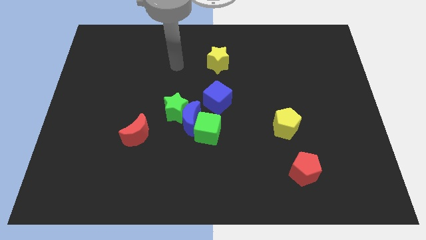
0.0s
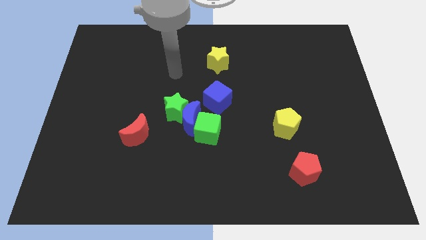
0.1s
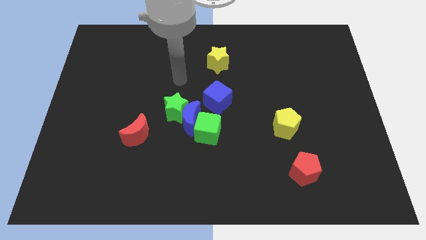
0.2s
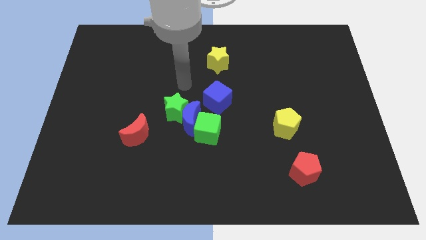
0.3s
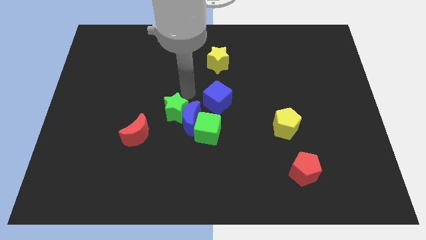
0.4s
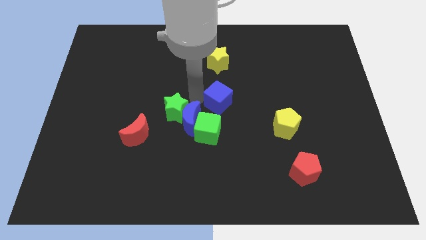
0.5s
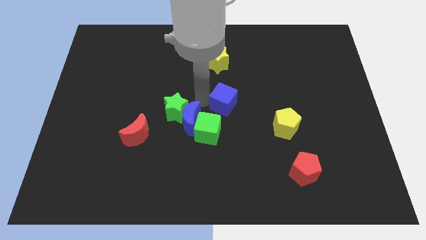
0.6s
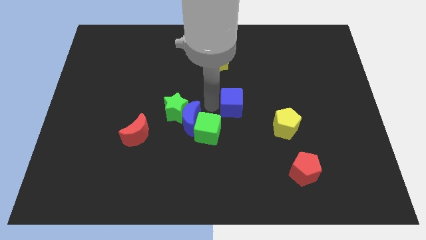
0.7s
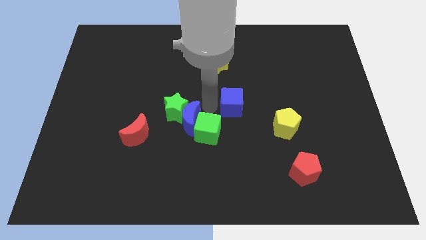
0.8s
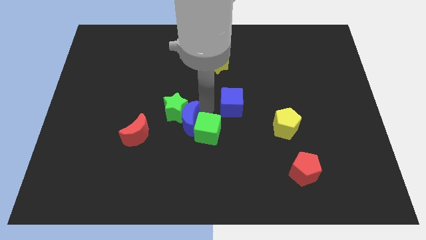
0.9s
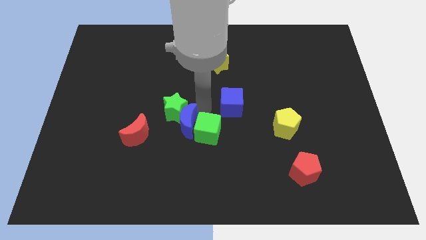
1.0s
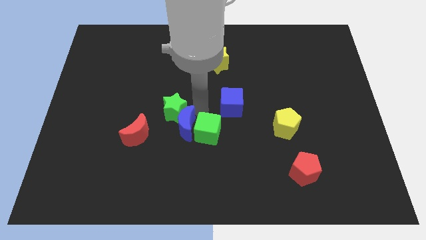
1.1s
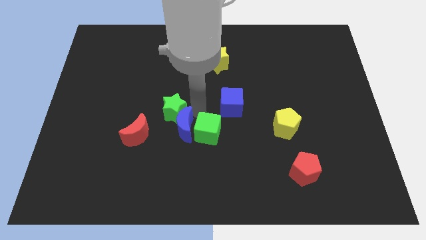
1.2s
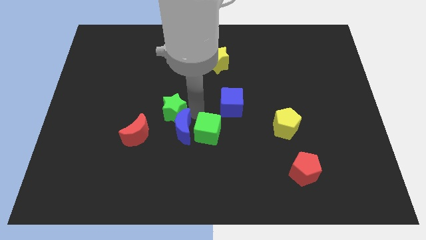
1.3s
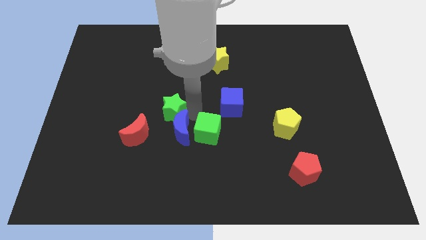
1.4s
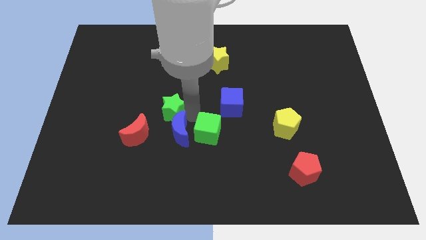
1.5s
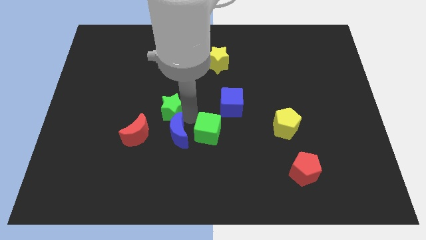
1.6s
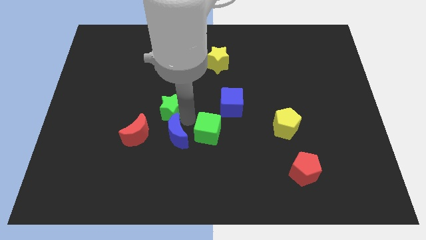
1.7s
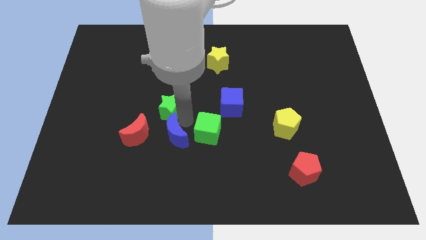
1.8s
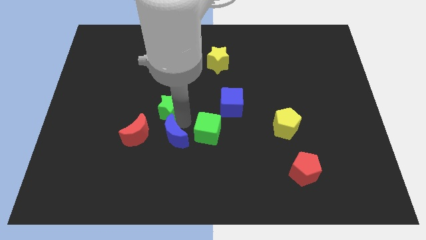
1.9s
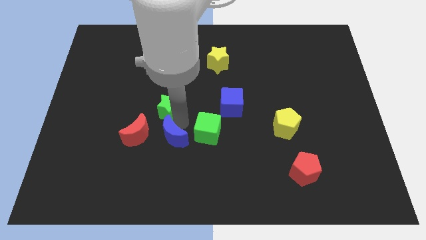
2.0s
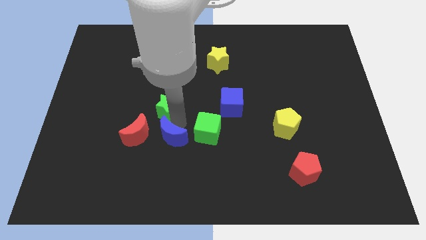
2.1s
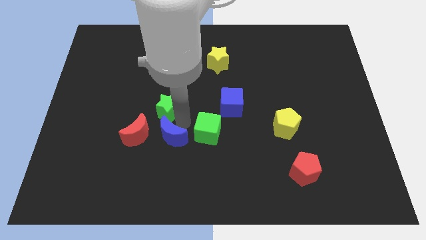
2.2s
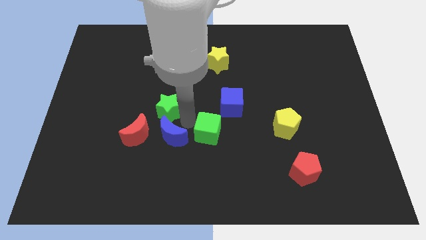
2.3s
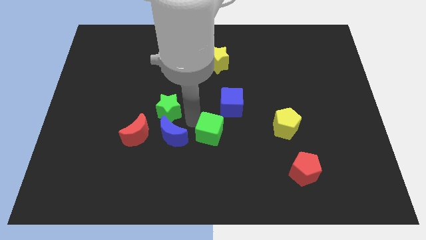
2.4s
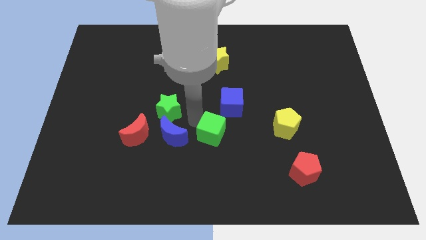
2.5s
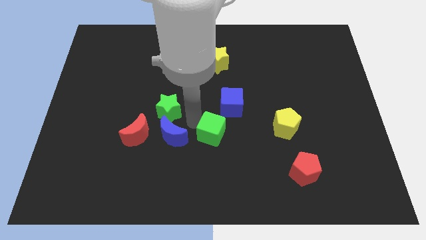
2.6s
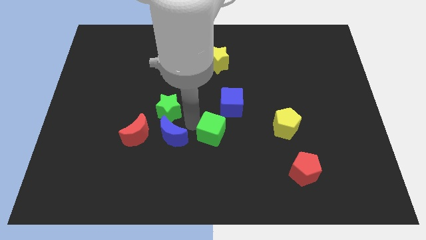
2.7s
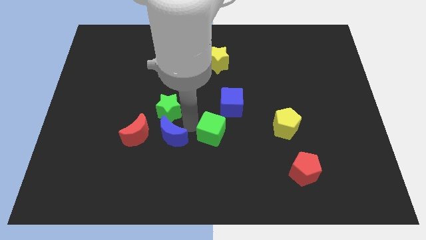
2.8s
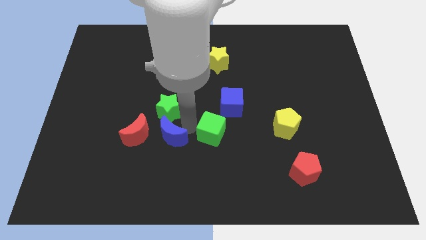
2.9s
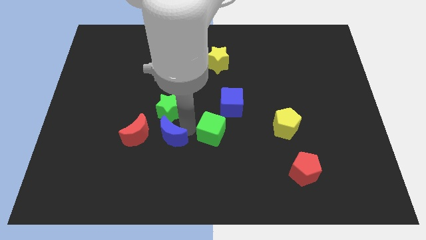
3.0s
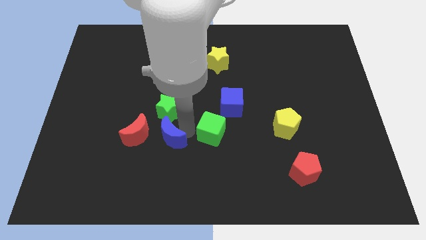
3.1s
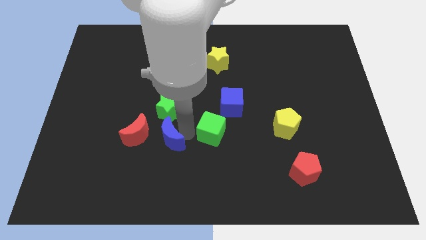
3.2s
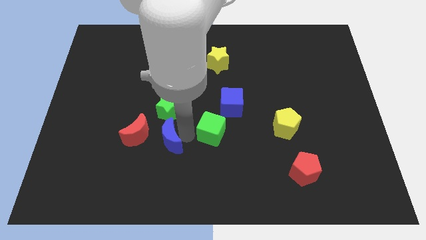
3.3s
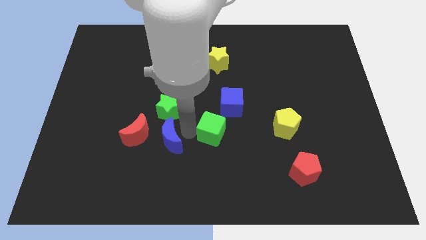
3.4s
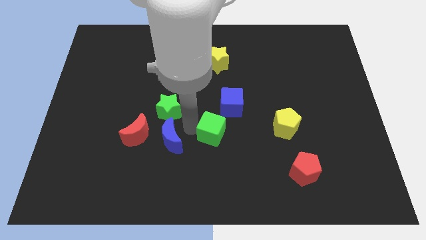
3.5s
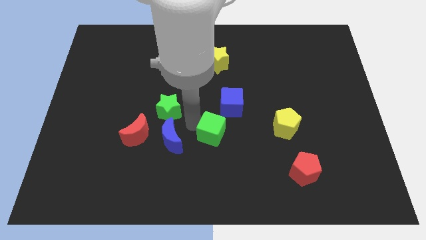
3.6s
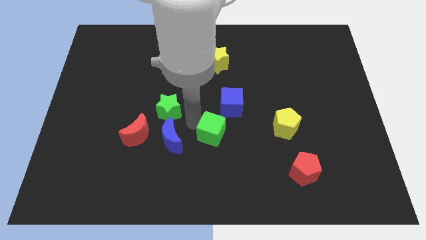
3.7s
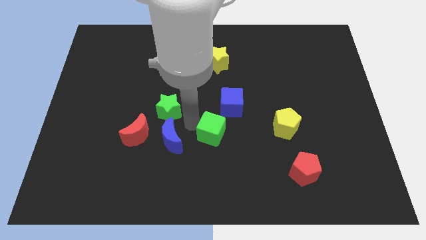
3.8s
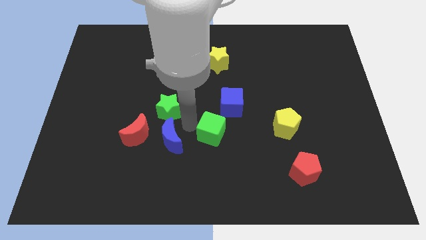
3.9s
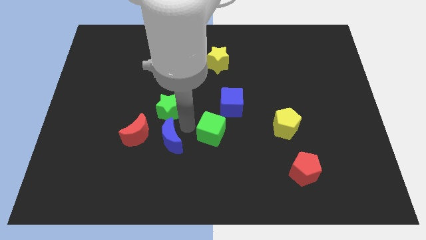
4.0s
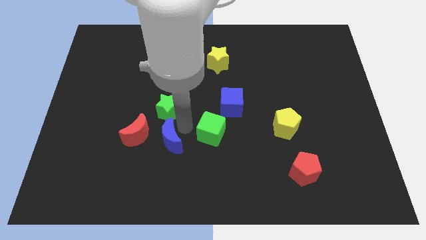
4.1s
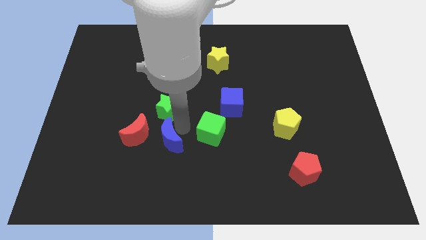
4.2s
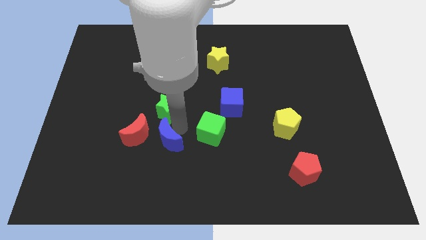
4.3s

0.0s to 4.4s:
pull the blue moon apart from the group

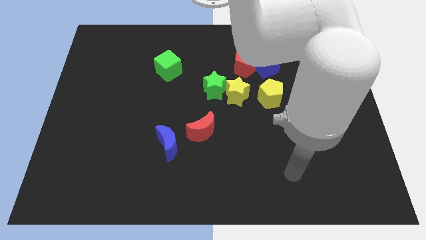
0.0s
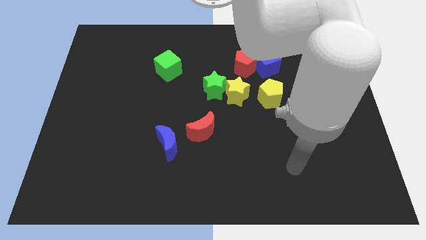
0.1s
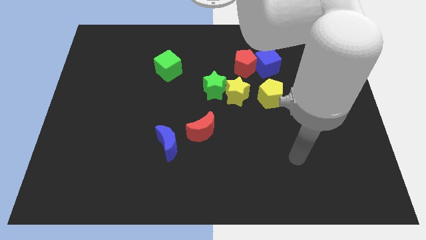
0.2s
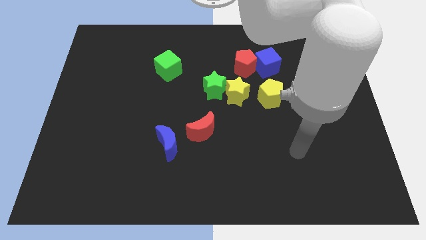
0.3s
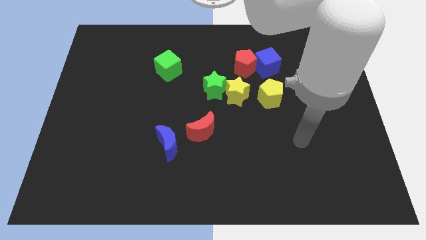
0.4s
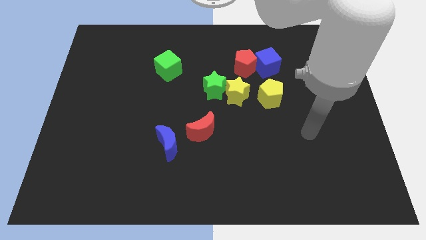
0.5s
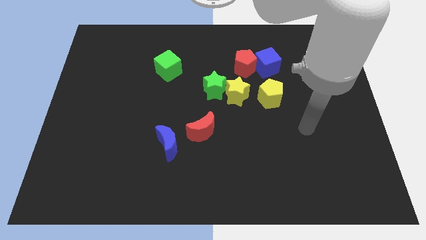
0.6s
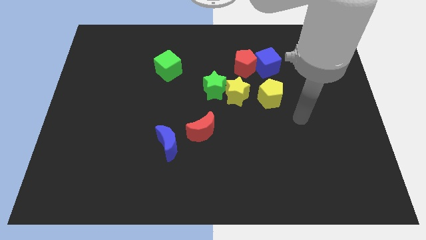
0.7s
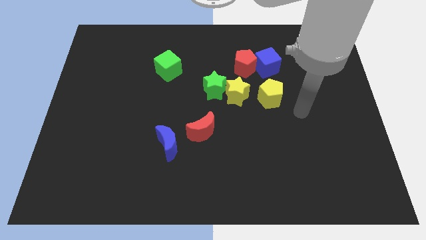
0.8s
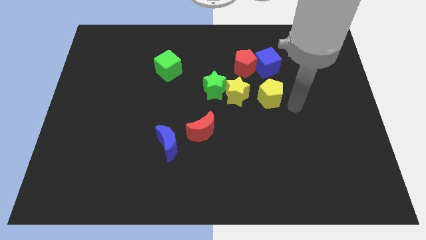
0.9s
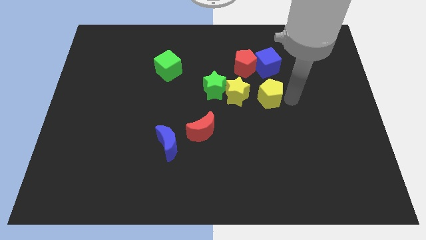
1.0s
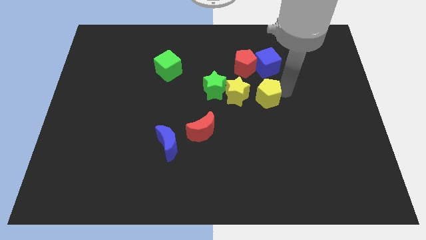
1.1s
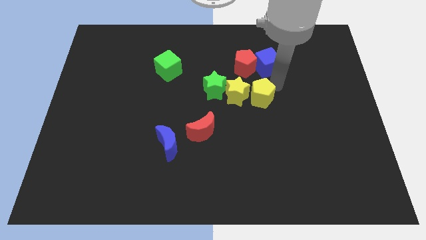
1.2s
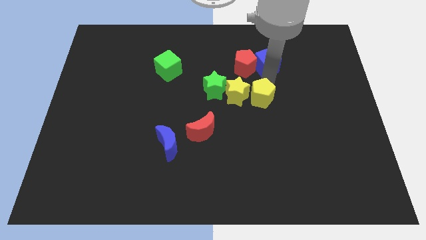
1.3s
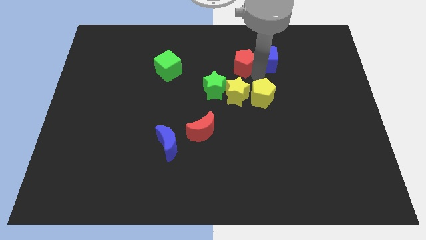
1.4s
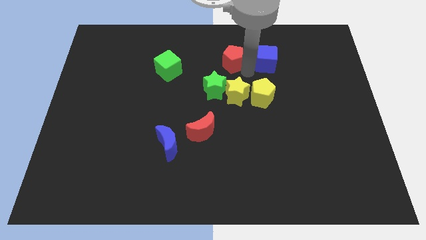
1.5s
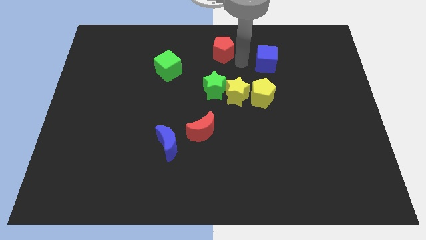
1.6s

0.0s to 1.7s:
separate the blue cube from the red pentagon

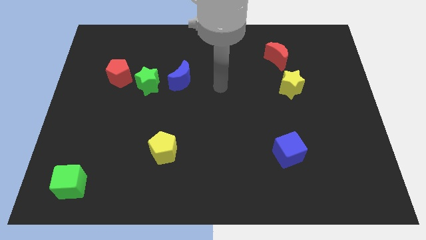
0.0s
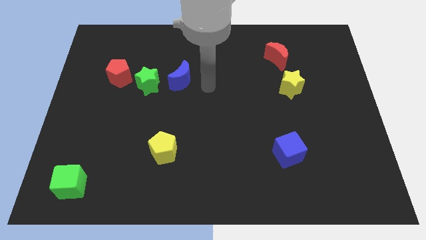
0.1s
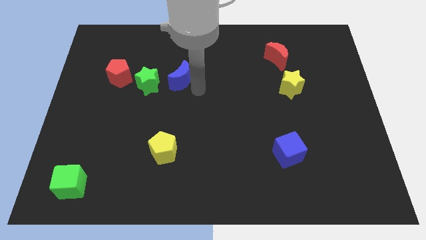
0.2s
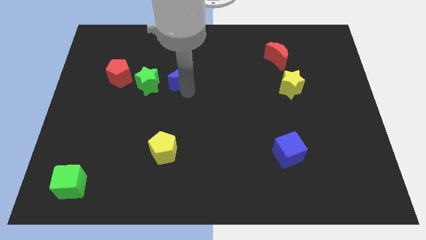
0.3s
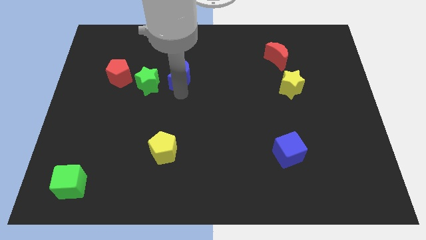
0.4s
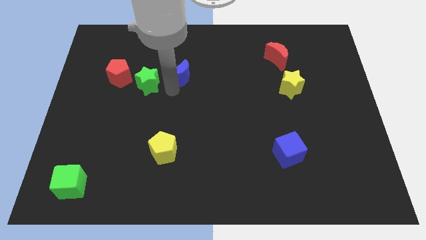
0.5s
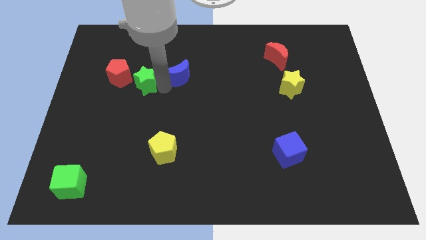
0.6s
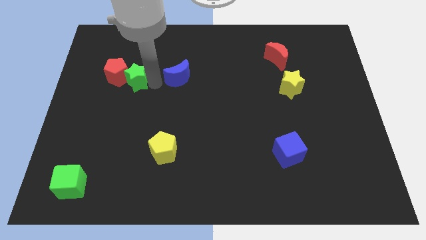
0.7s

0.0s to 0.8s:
pull the blue moon apart from the green star

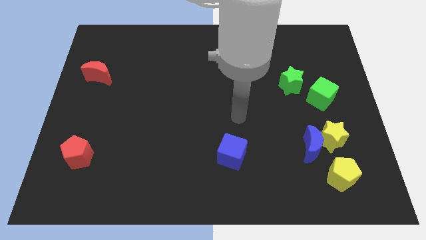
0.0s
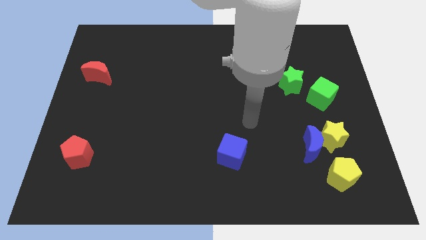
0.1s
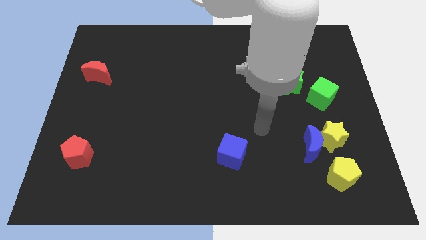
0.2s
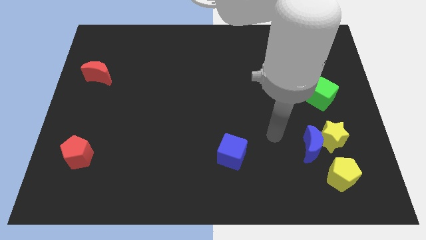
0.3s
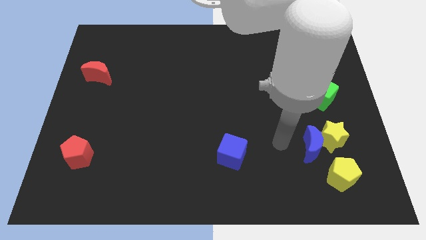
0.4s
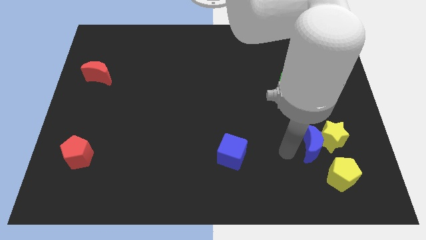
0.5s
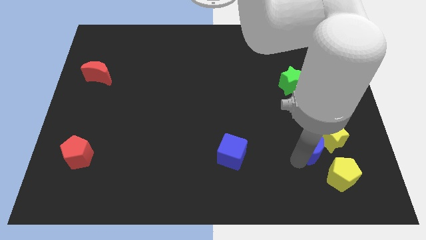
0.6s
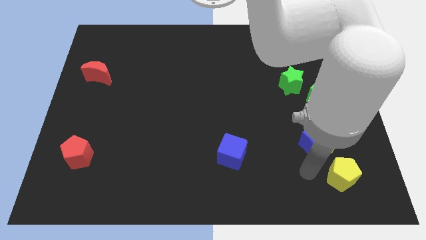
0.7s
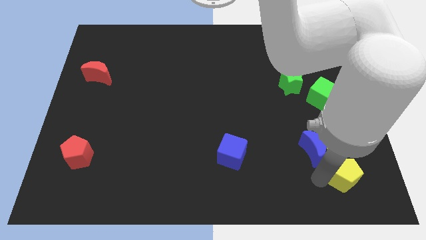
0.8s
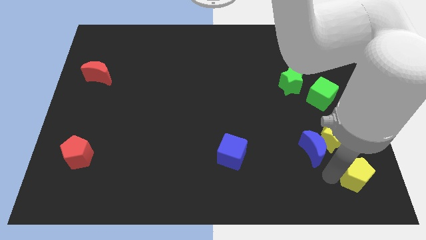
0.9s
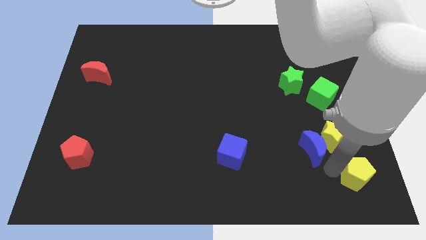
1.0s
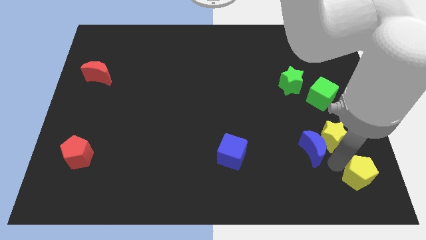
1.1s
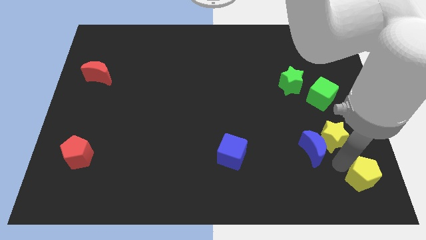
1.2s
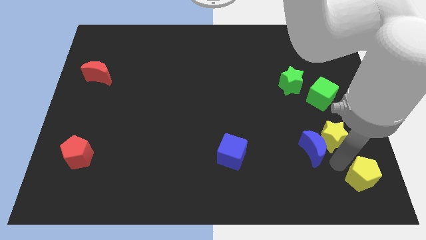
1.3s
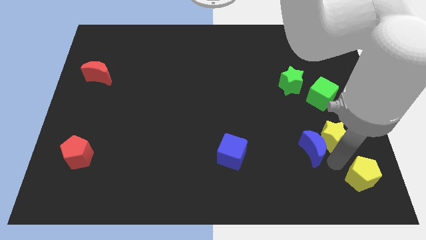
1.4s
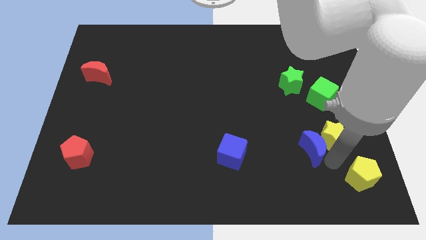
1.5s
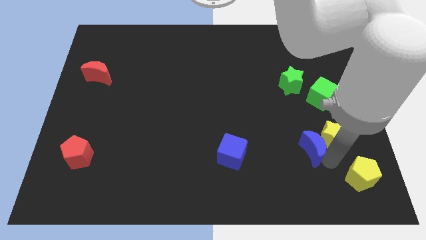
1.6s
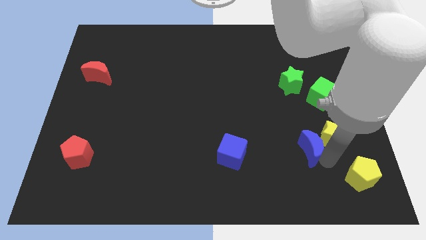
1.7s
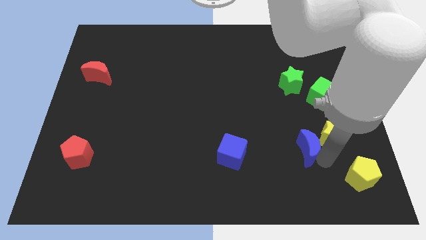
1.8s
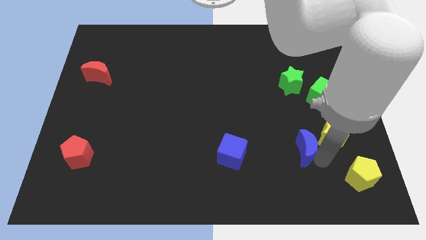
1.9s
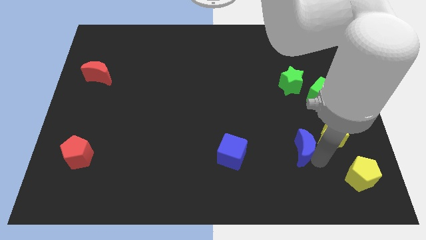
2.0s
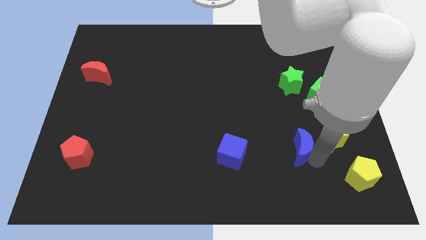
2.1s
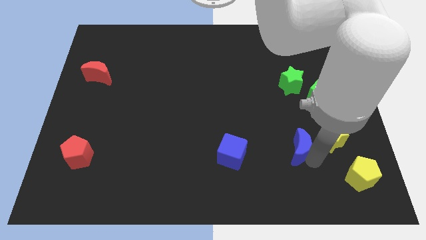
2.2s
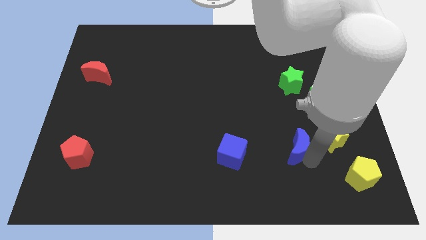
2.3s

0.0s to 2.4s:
pull the blue moon apart from the yellow star and yellow pentagon

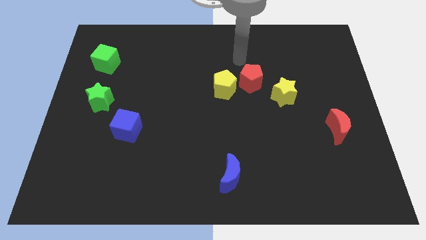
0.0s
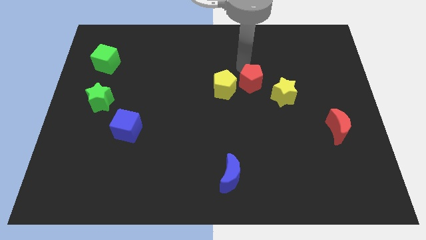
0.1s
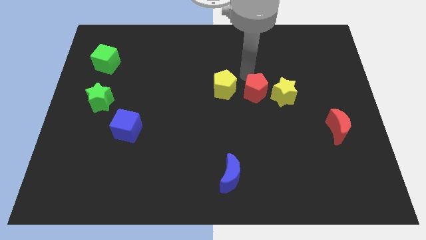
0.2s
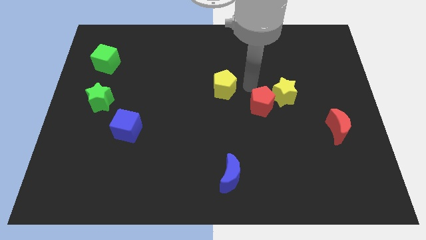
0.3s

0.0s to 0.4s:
pull the yellow pentagon apart from the red pentagon
